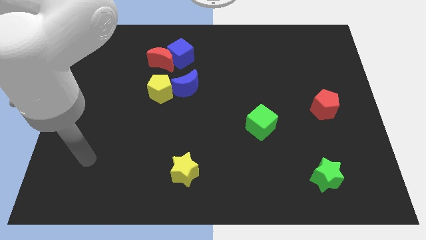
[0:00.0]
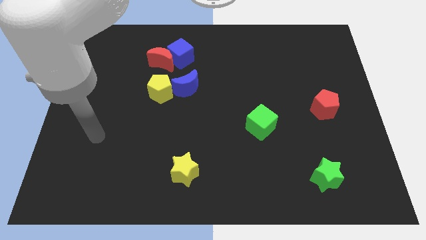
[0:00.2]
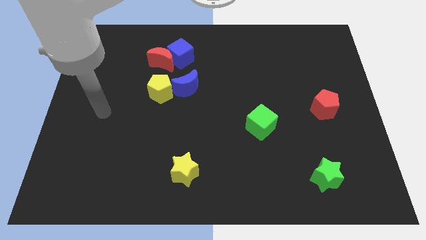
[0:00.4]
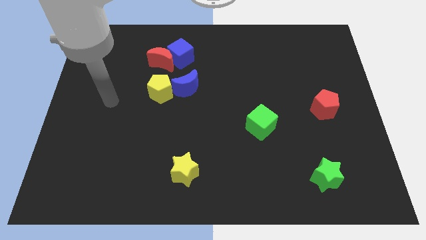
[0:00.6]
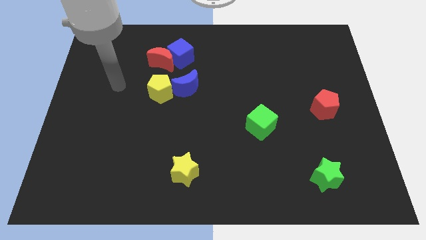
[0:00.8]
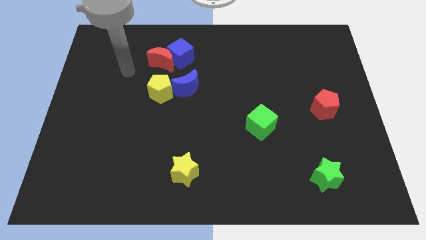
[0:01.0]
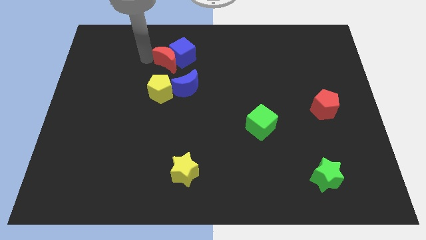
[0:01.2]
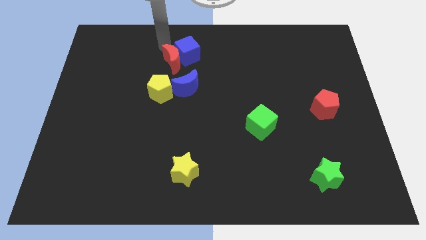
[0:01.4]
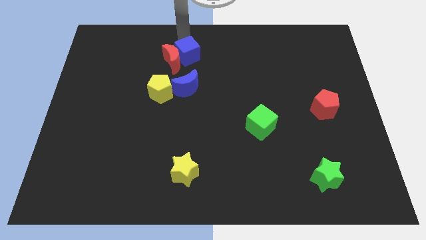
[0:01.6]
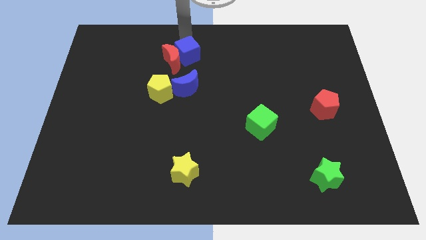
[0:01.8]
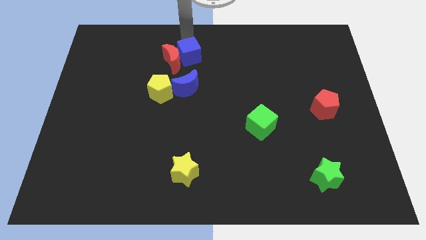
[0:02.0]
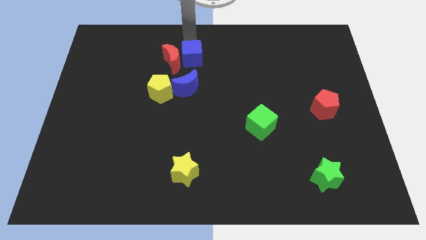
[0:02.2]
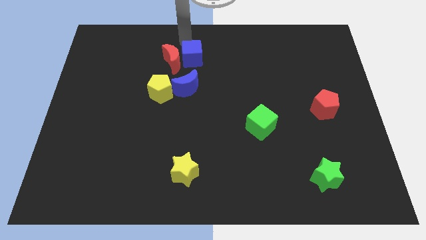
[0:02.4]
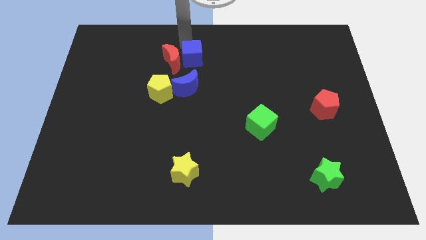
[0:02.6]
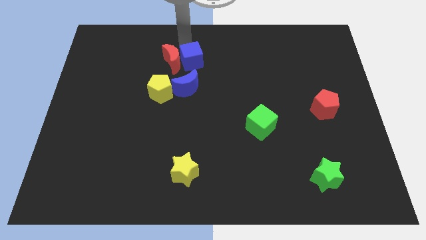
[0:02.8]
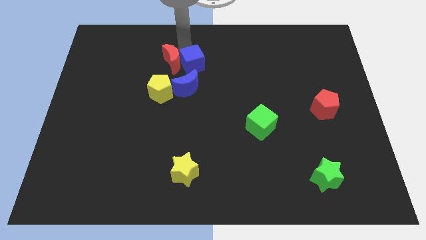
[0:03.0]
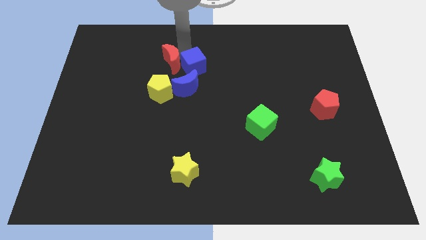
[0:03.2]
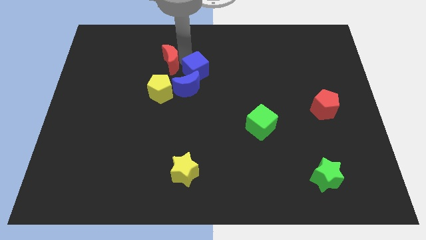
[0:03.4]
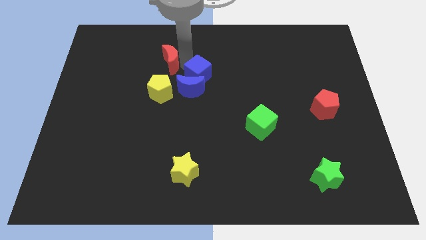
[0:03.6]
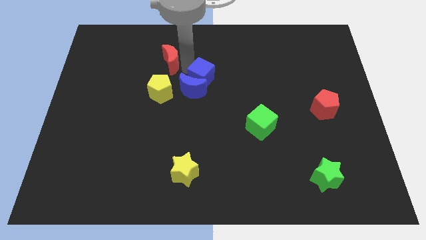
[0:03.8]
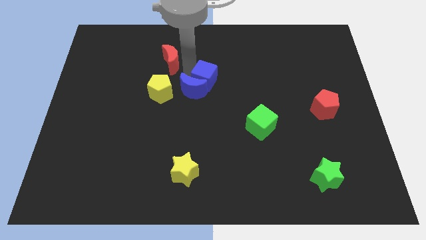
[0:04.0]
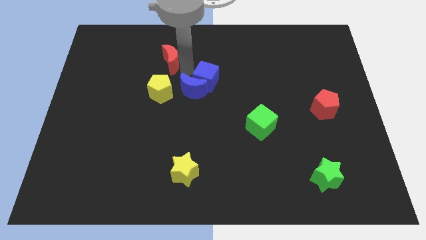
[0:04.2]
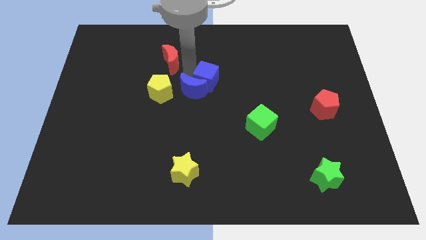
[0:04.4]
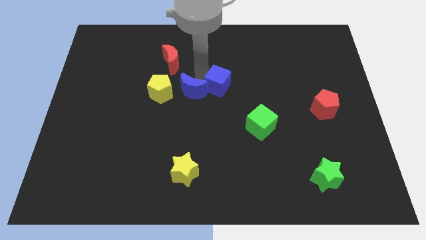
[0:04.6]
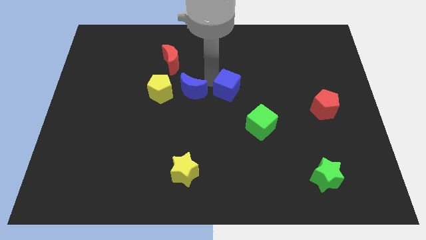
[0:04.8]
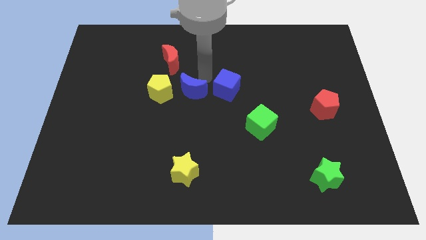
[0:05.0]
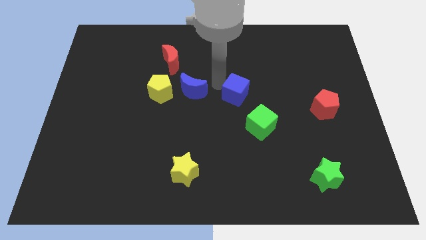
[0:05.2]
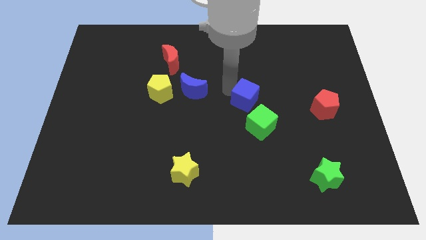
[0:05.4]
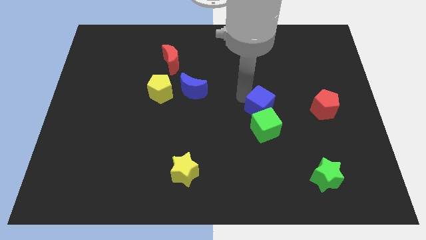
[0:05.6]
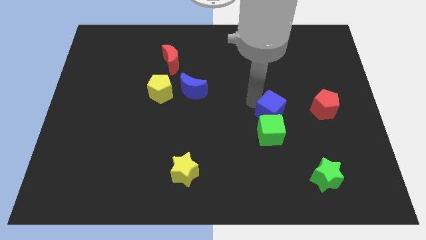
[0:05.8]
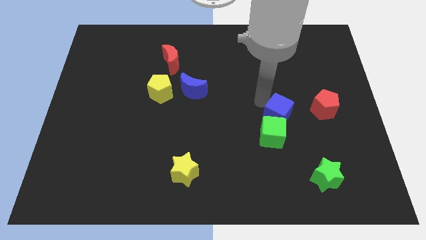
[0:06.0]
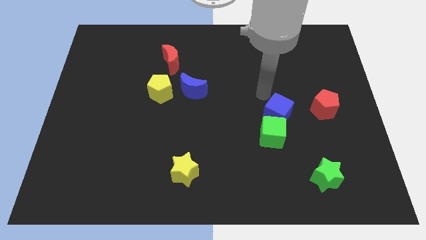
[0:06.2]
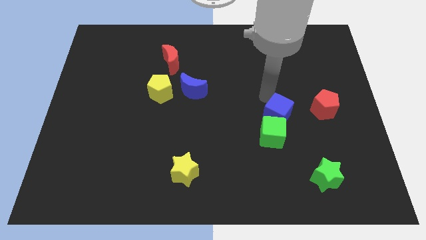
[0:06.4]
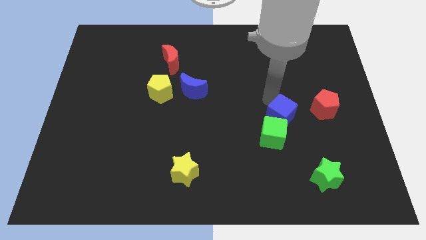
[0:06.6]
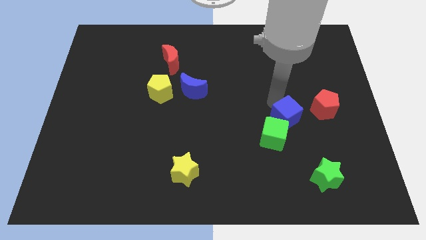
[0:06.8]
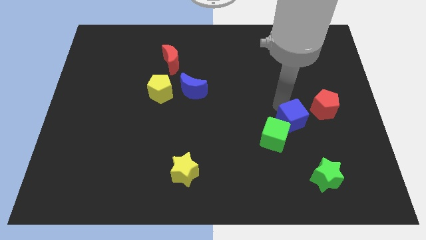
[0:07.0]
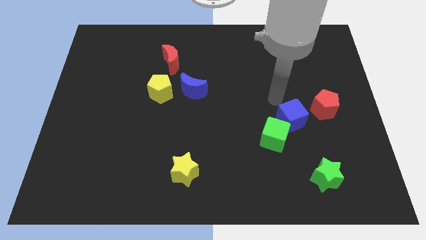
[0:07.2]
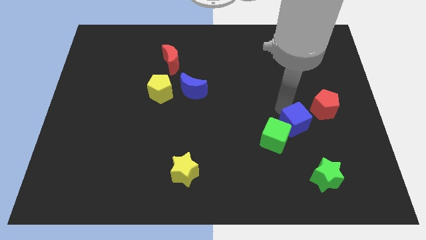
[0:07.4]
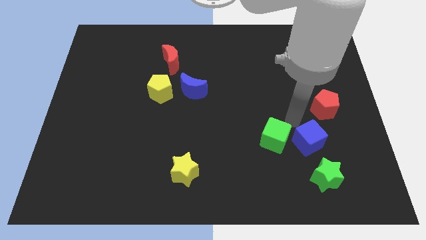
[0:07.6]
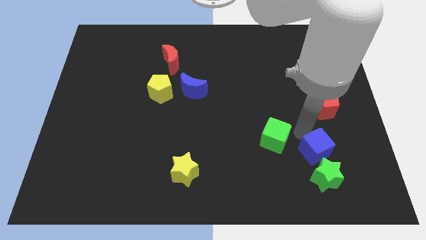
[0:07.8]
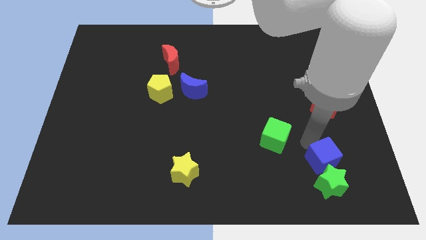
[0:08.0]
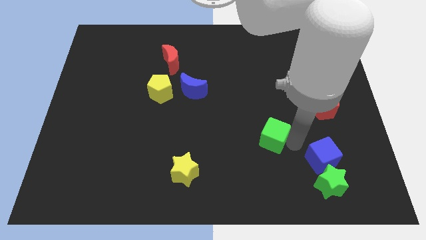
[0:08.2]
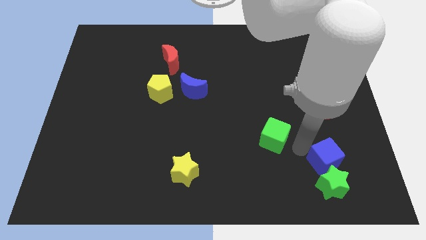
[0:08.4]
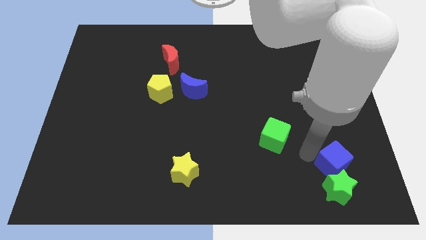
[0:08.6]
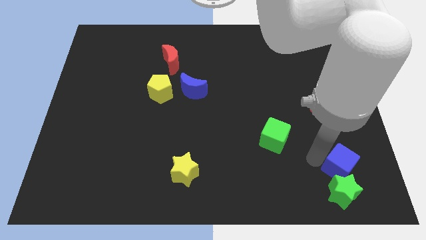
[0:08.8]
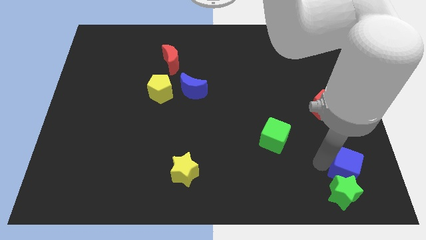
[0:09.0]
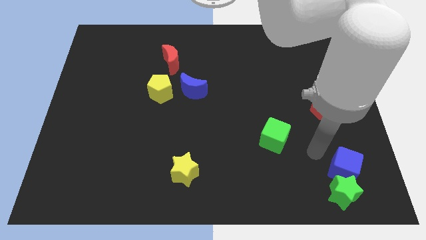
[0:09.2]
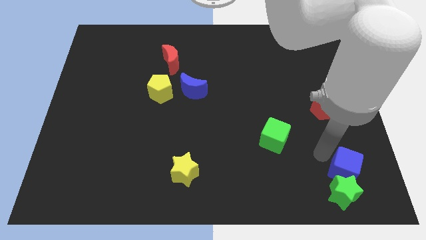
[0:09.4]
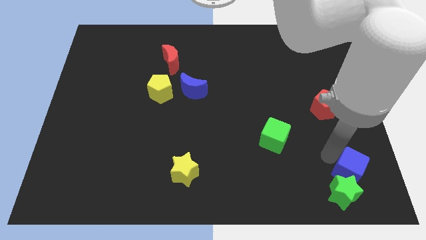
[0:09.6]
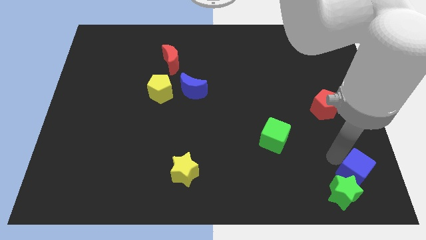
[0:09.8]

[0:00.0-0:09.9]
move the blue cube to the lower right corner

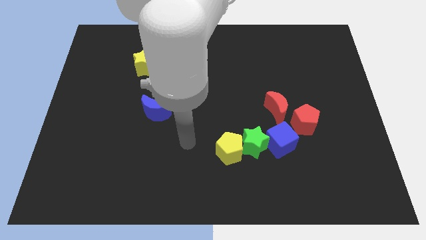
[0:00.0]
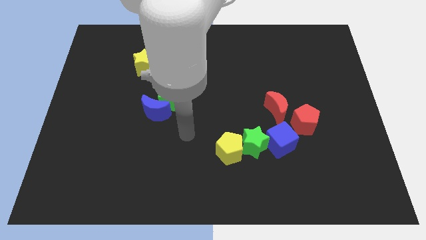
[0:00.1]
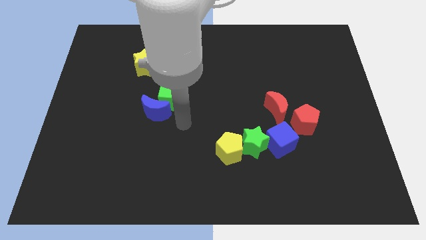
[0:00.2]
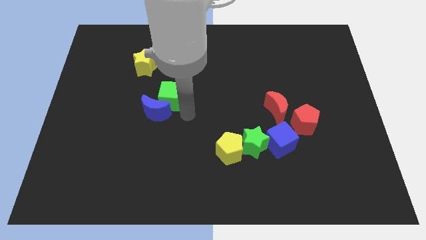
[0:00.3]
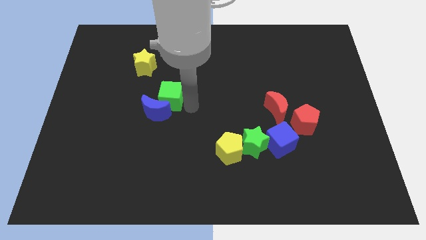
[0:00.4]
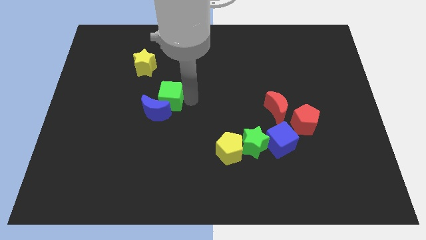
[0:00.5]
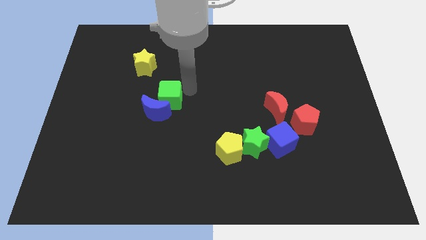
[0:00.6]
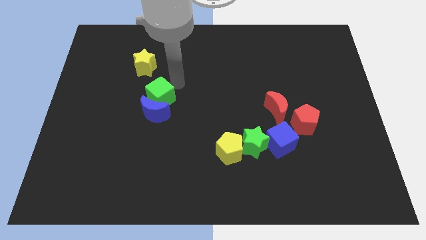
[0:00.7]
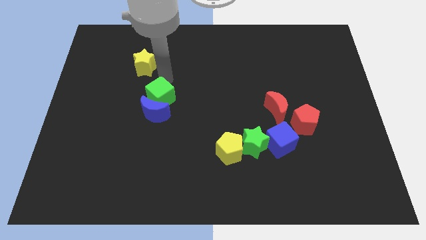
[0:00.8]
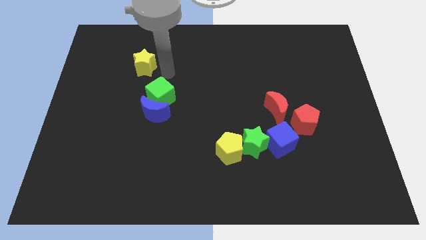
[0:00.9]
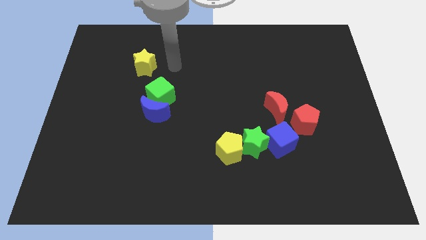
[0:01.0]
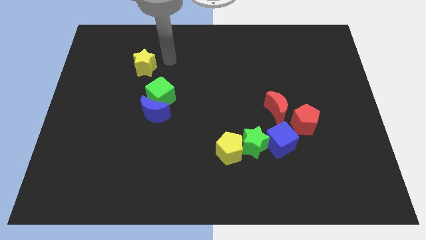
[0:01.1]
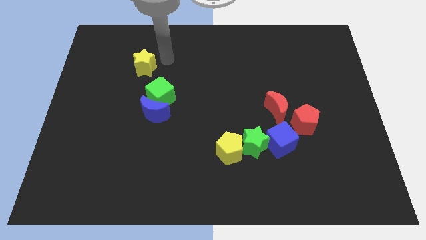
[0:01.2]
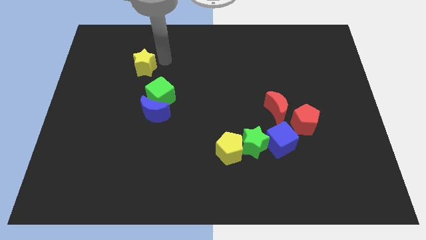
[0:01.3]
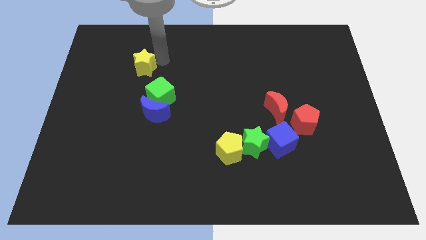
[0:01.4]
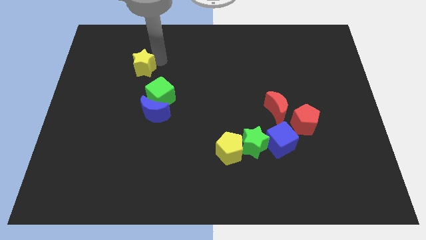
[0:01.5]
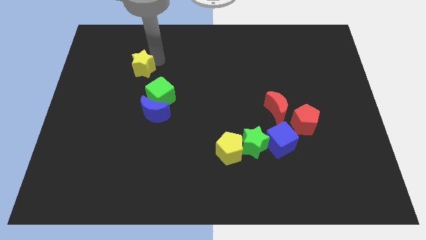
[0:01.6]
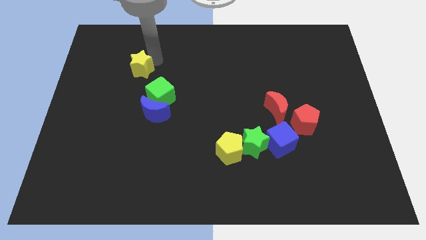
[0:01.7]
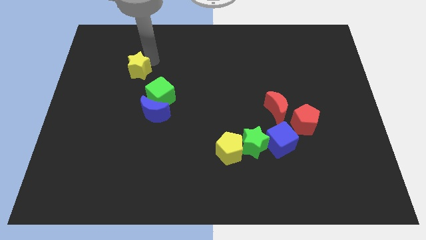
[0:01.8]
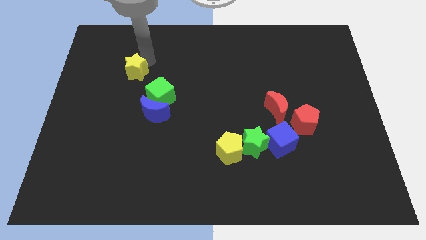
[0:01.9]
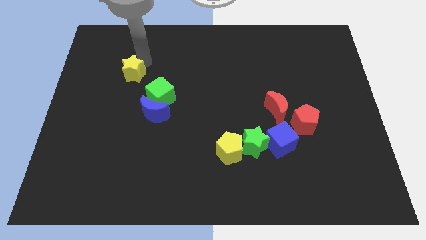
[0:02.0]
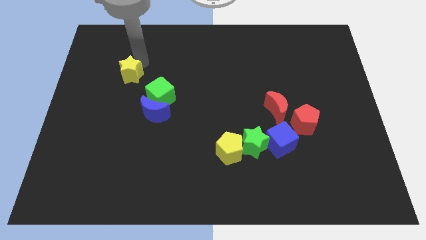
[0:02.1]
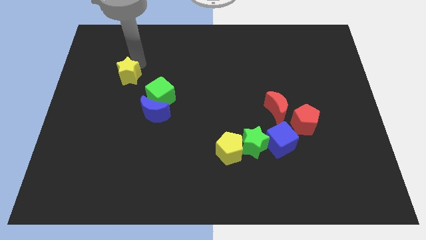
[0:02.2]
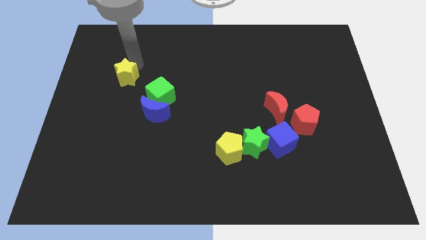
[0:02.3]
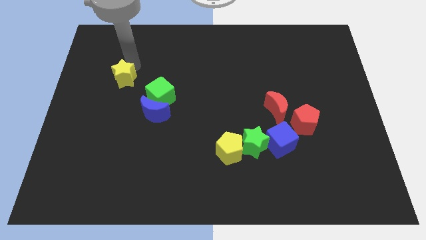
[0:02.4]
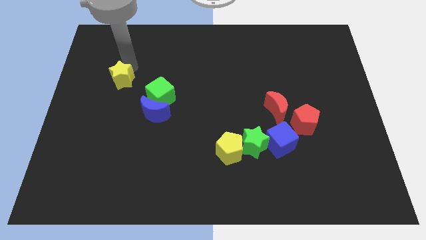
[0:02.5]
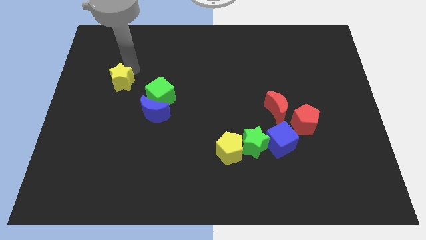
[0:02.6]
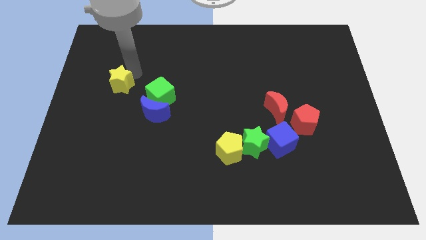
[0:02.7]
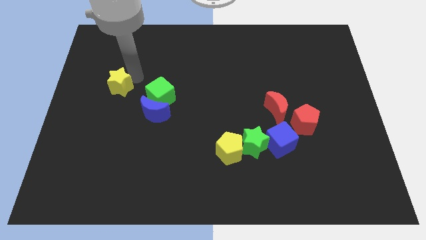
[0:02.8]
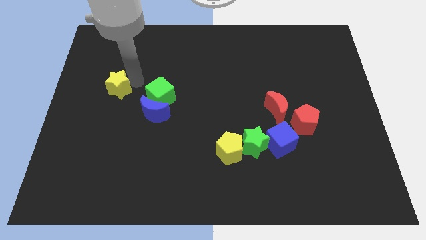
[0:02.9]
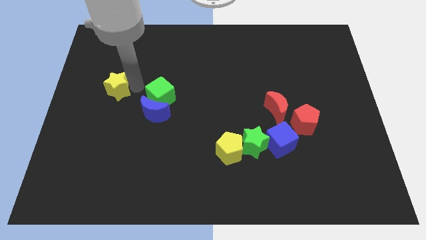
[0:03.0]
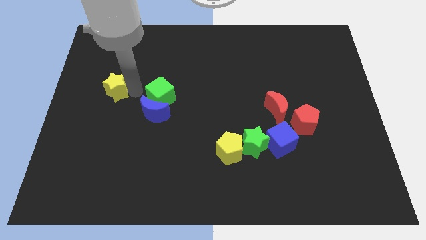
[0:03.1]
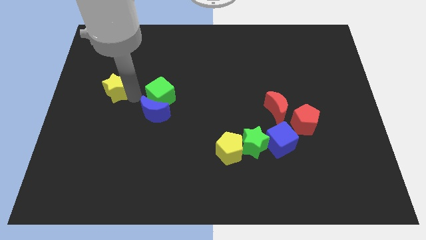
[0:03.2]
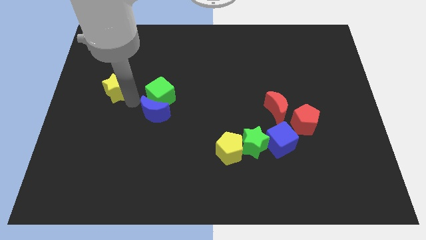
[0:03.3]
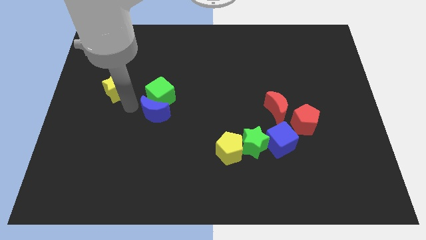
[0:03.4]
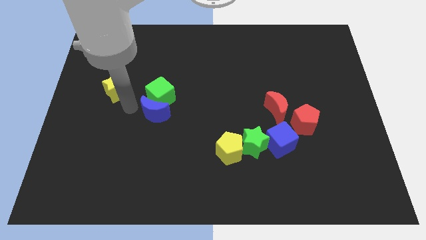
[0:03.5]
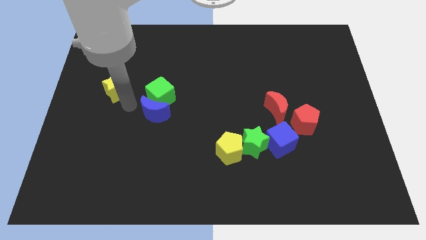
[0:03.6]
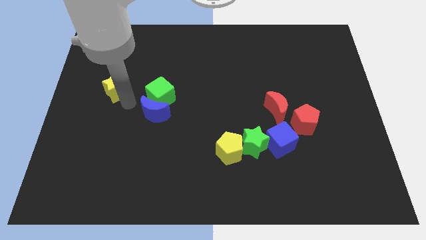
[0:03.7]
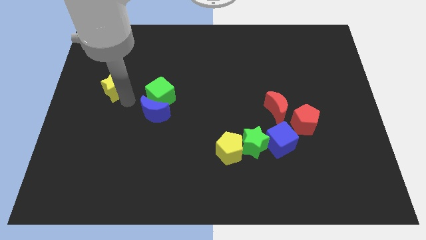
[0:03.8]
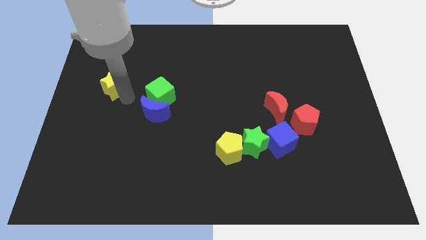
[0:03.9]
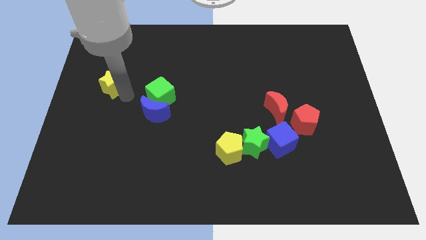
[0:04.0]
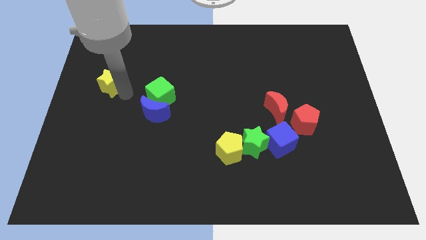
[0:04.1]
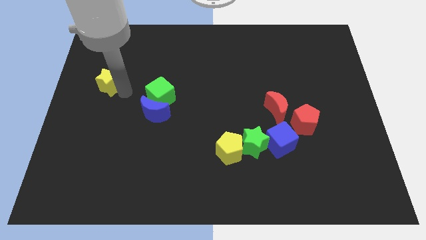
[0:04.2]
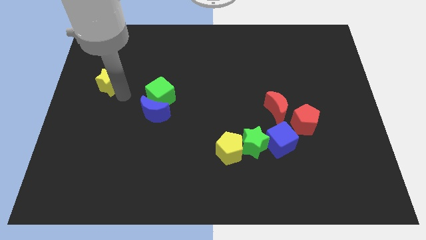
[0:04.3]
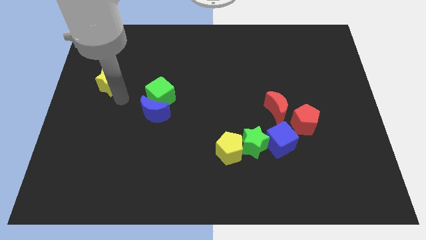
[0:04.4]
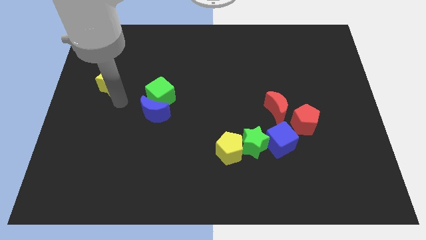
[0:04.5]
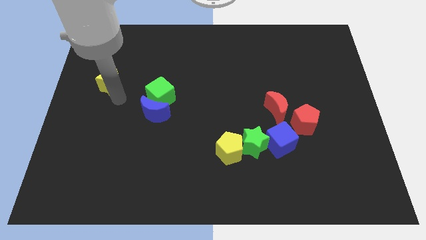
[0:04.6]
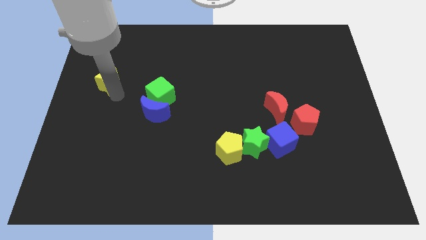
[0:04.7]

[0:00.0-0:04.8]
put the yellow star to the left side of the board
